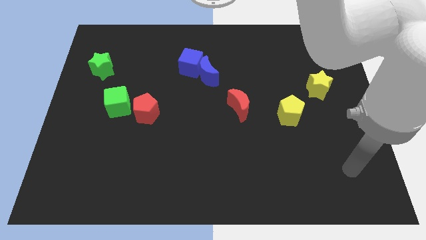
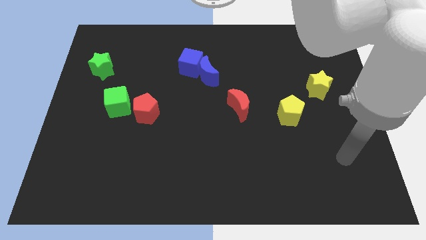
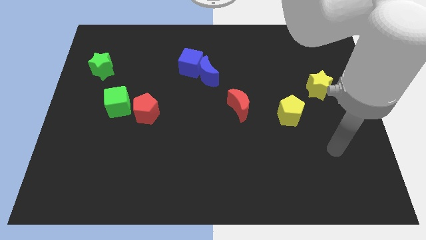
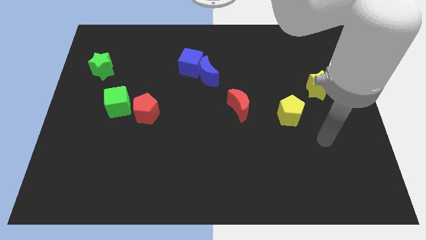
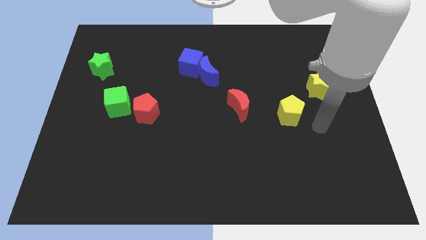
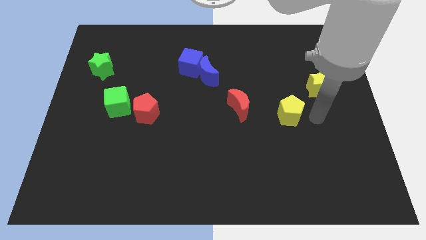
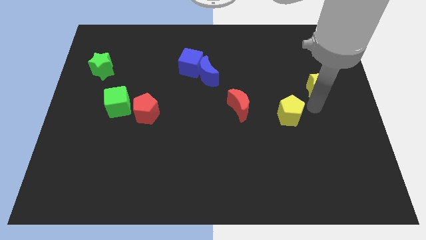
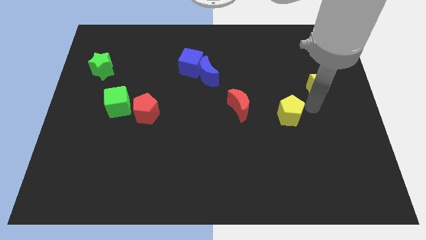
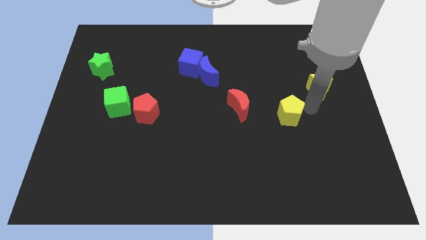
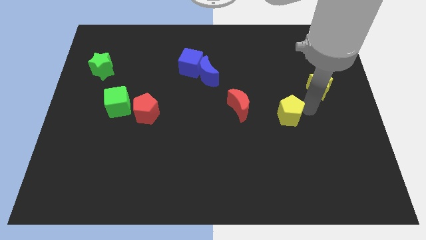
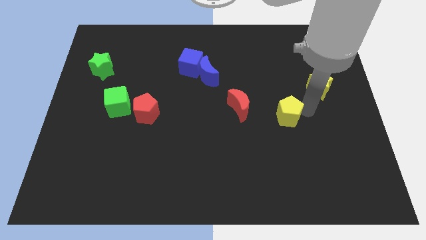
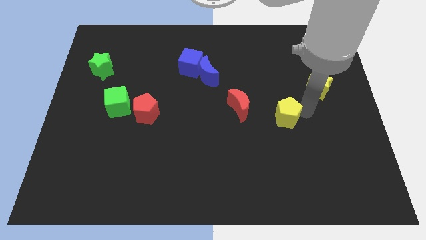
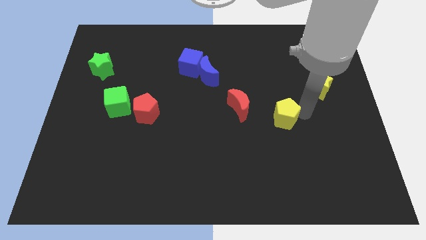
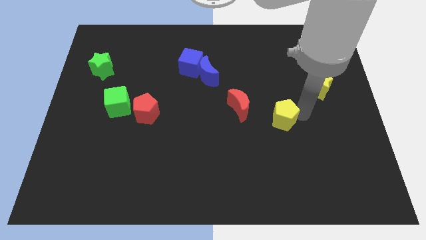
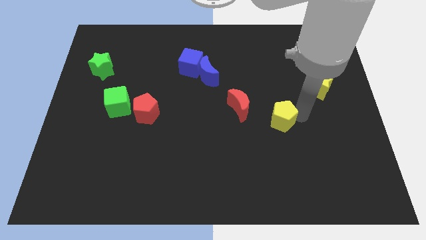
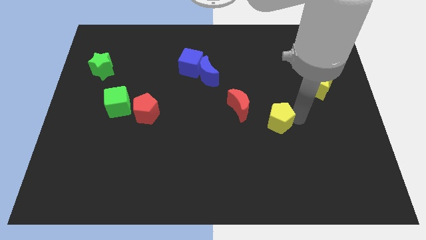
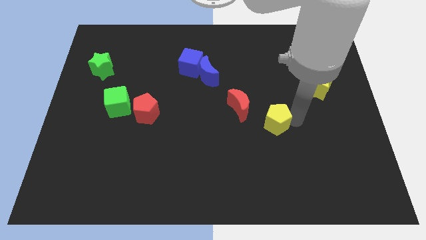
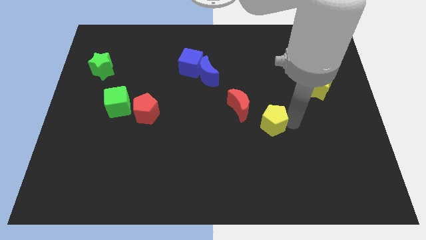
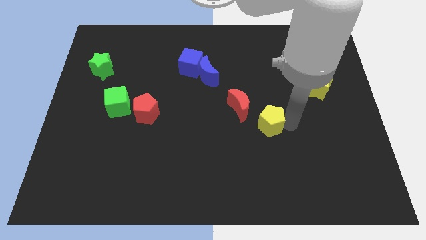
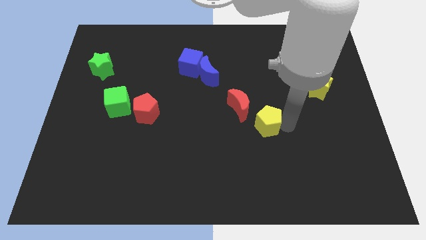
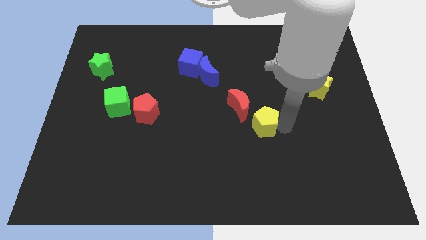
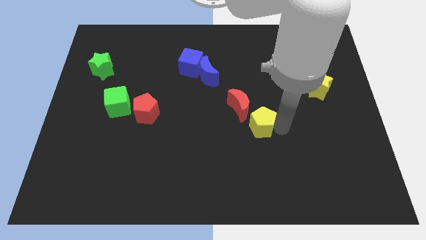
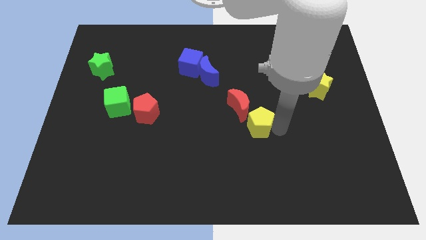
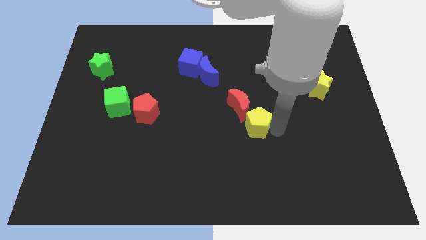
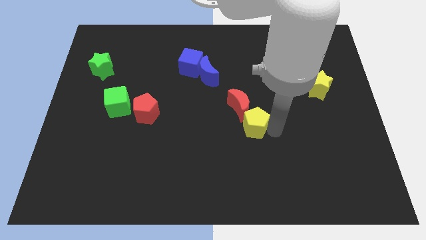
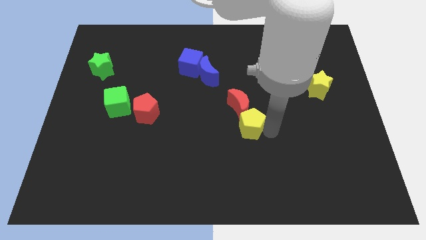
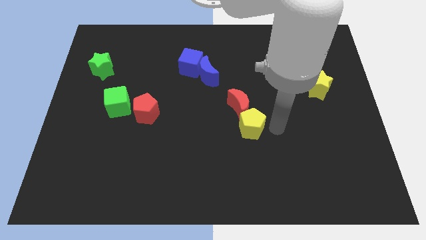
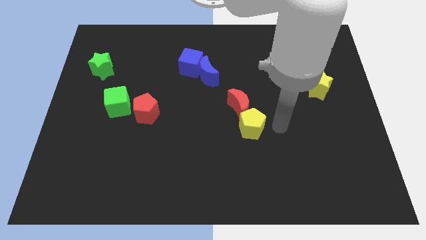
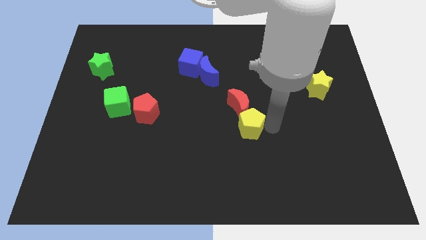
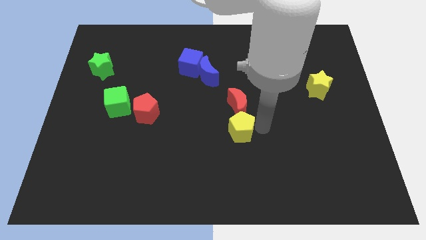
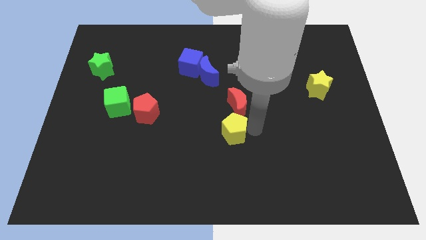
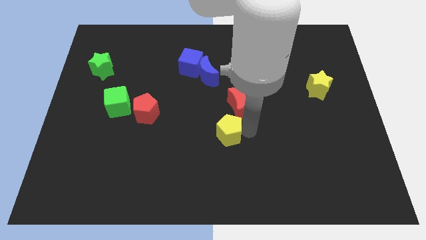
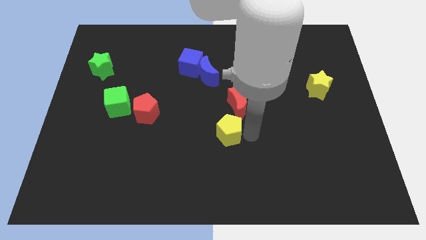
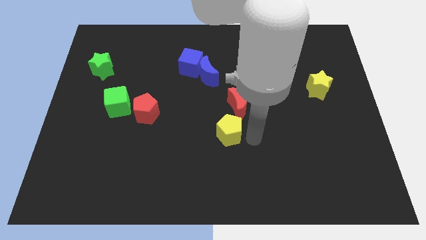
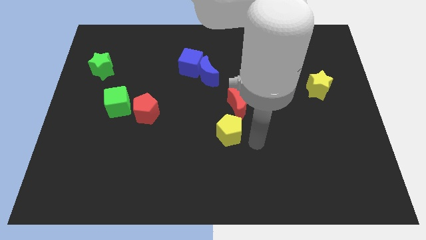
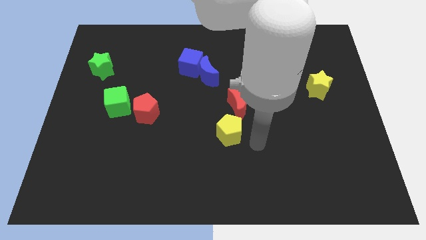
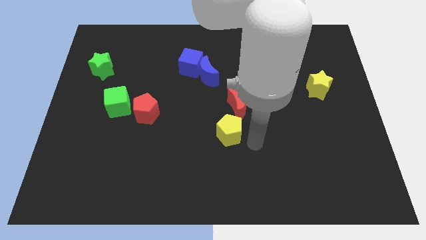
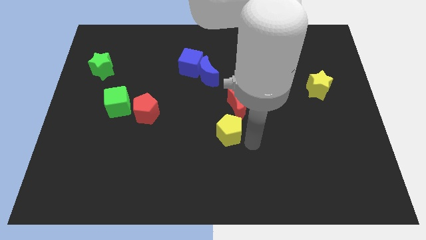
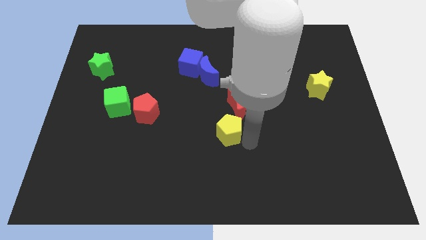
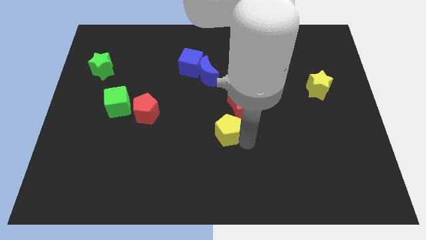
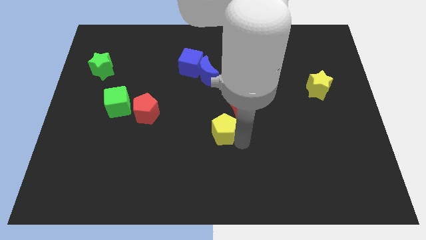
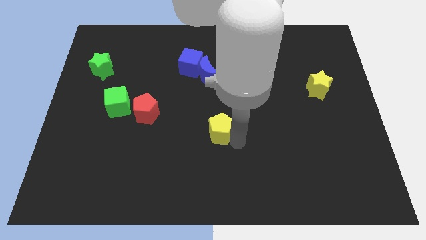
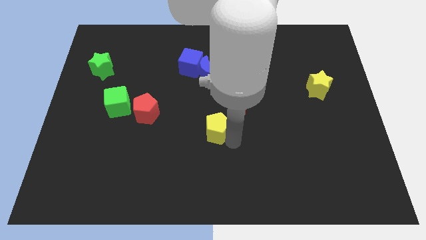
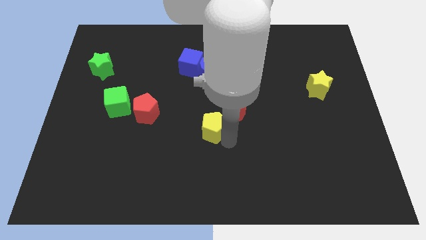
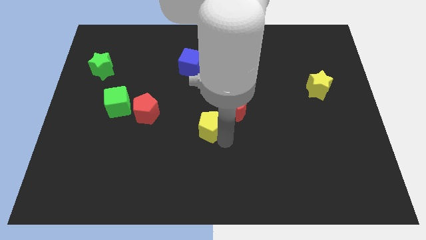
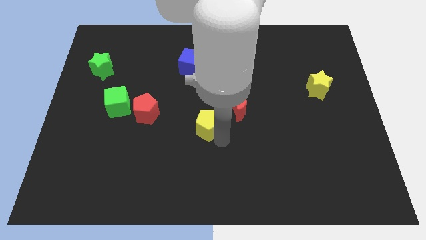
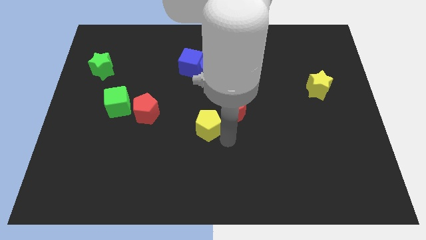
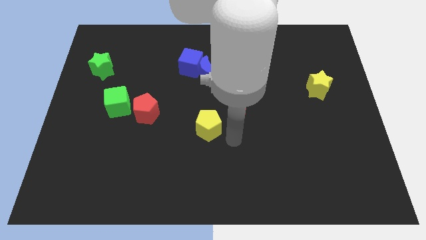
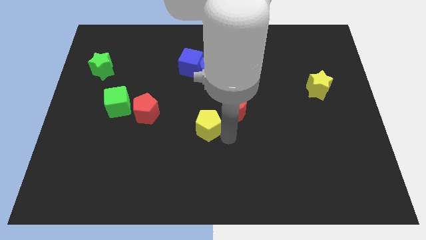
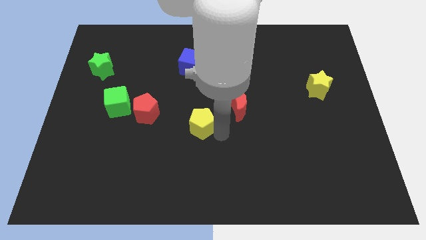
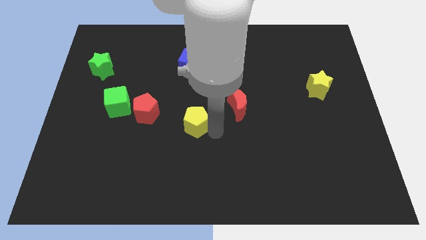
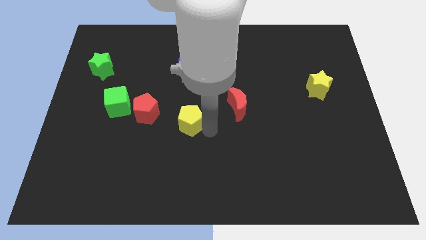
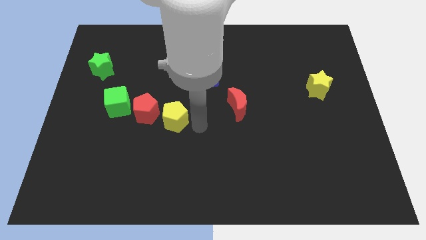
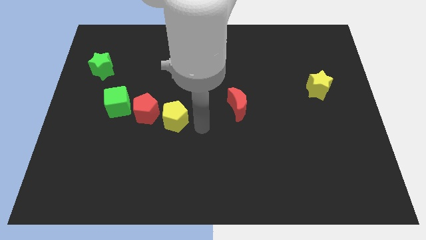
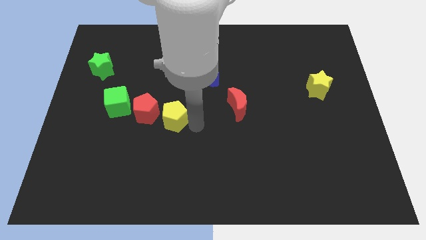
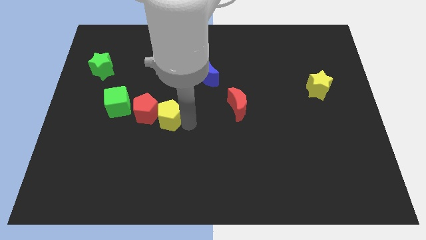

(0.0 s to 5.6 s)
slide the yellow pentagon to the red pentagon
